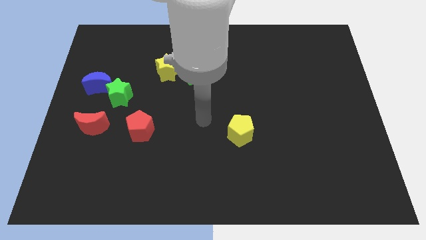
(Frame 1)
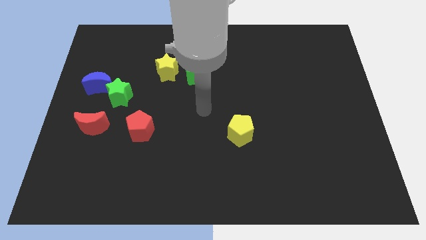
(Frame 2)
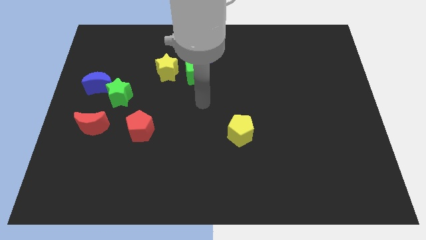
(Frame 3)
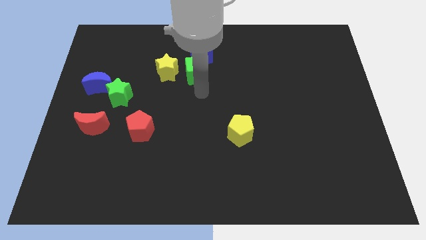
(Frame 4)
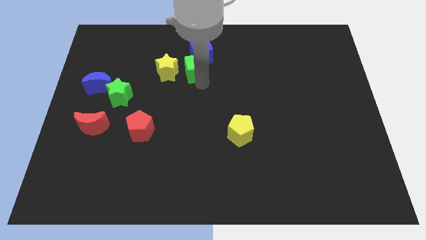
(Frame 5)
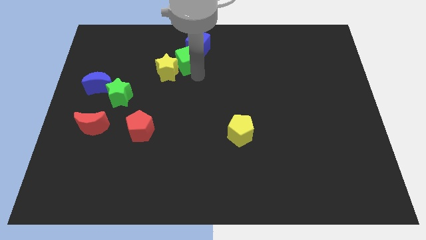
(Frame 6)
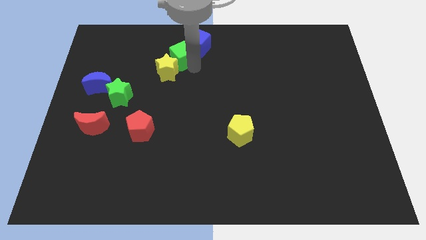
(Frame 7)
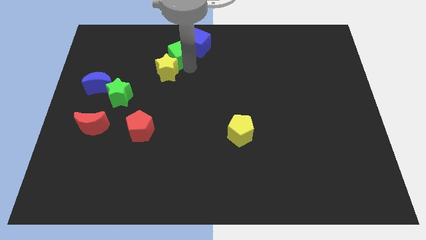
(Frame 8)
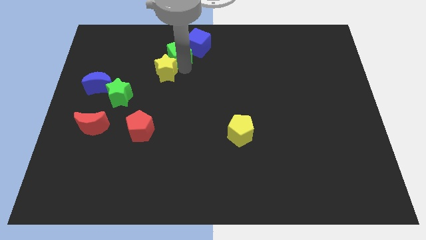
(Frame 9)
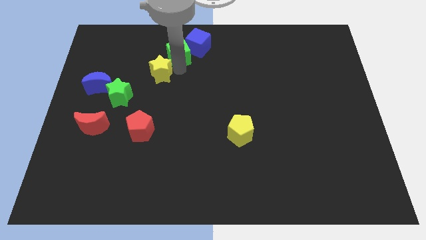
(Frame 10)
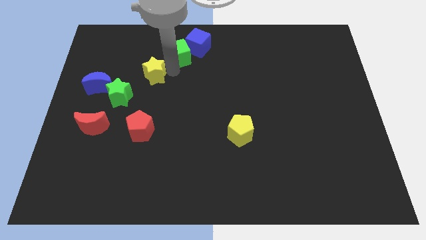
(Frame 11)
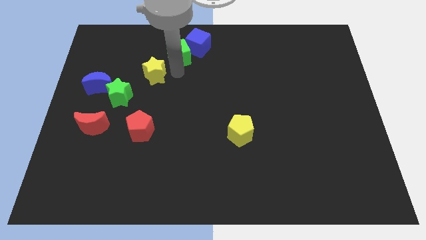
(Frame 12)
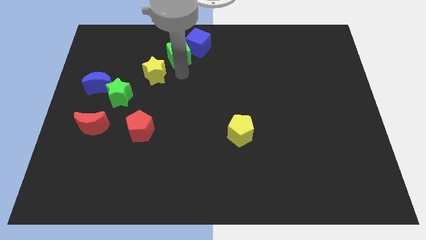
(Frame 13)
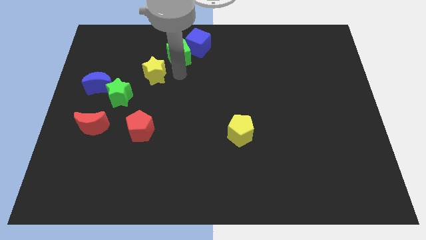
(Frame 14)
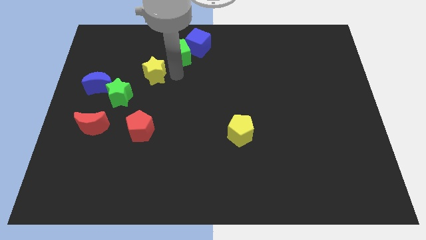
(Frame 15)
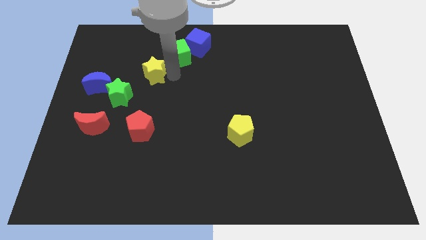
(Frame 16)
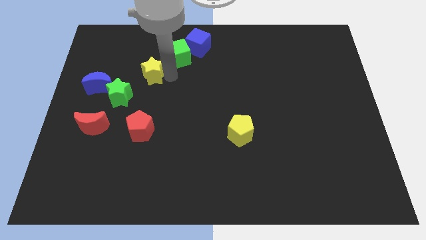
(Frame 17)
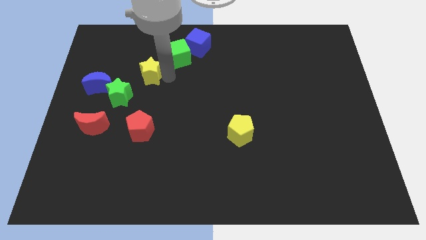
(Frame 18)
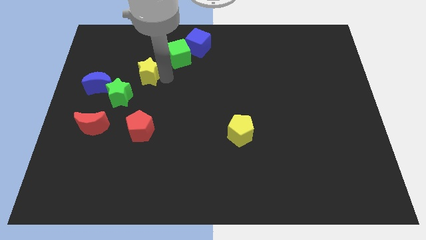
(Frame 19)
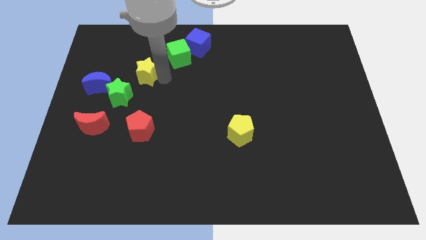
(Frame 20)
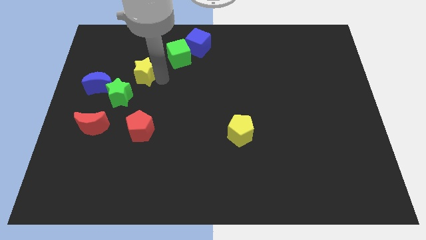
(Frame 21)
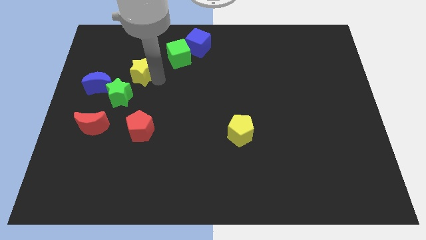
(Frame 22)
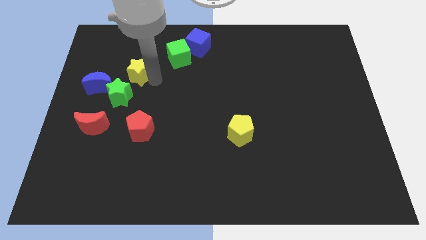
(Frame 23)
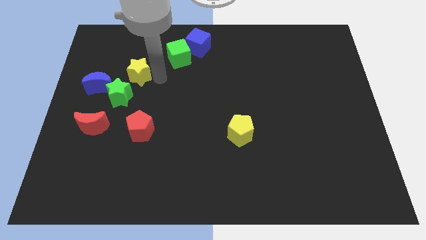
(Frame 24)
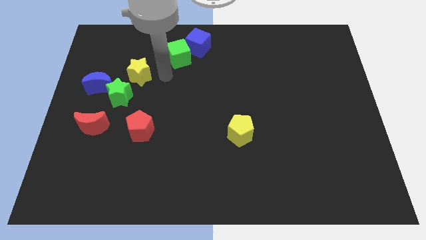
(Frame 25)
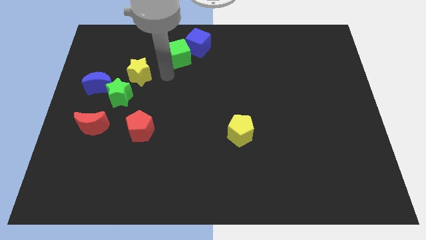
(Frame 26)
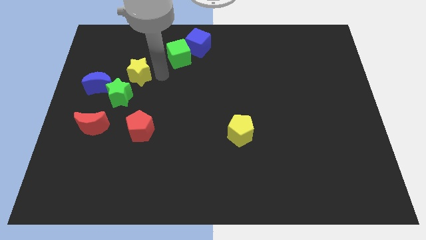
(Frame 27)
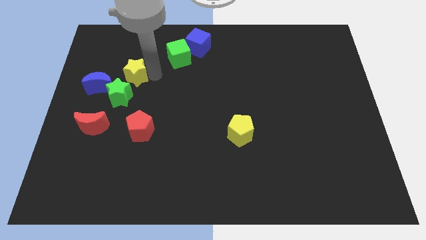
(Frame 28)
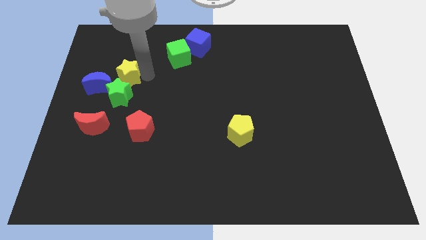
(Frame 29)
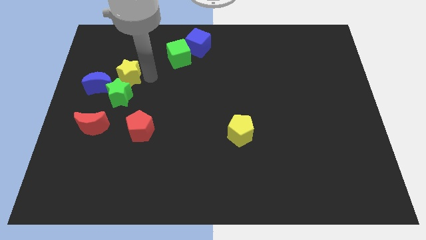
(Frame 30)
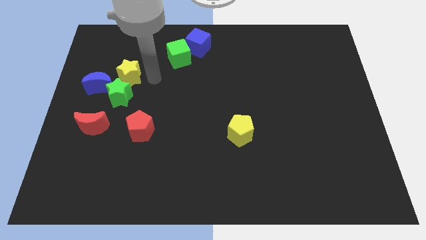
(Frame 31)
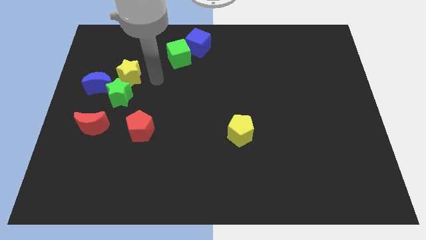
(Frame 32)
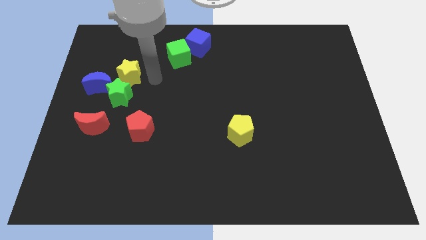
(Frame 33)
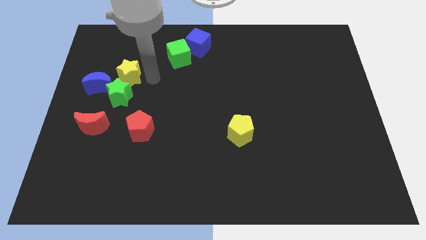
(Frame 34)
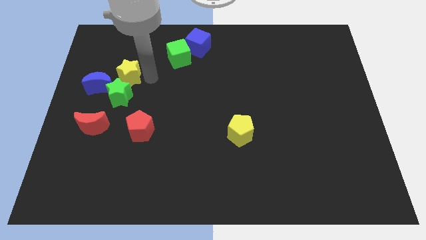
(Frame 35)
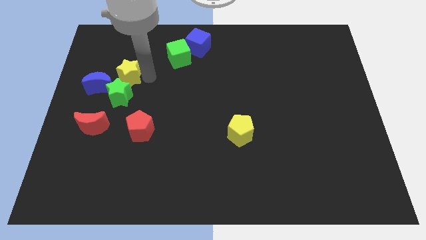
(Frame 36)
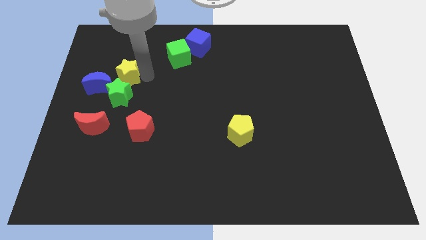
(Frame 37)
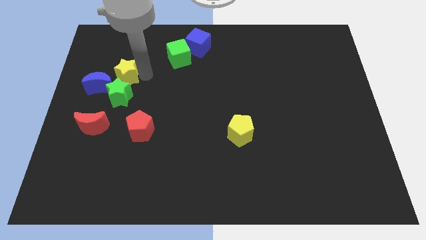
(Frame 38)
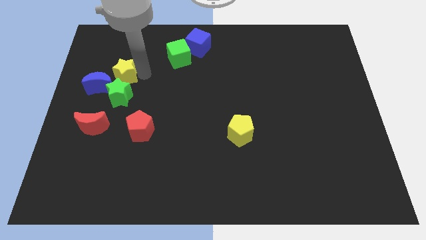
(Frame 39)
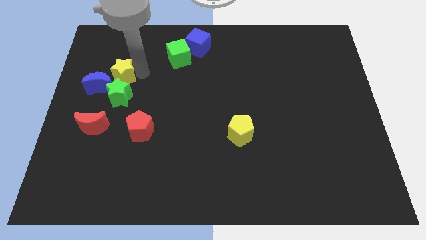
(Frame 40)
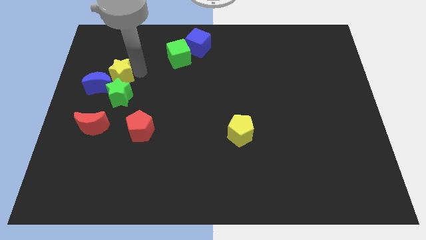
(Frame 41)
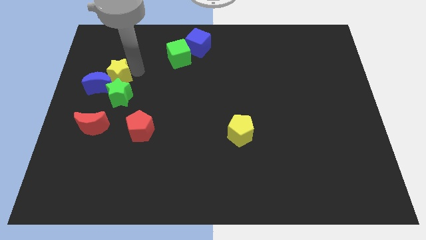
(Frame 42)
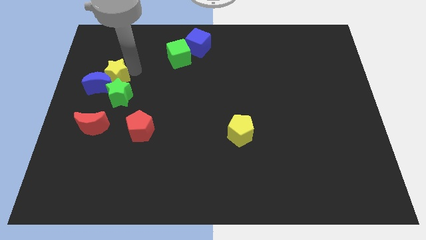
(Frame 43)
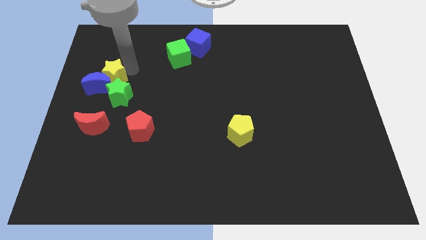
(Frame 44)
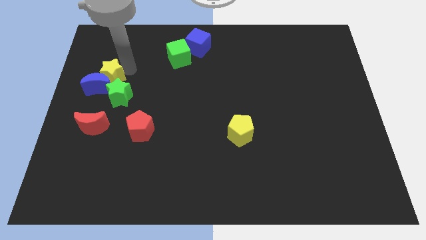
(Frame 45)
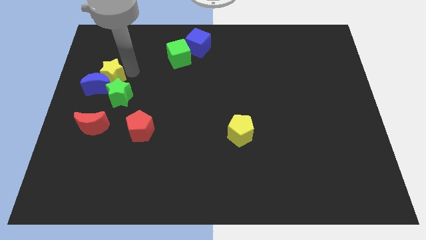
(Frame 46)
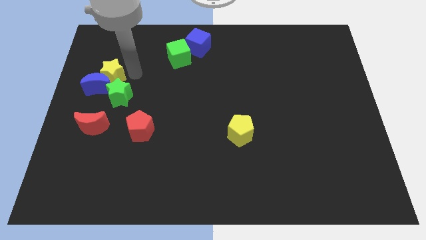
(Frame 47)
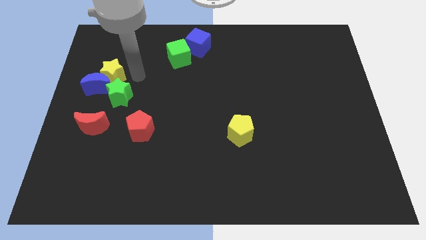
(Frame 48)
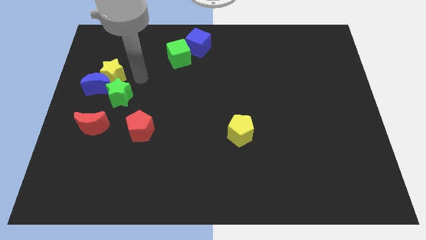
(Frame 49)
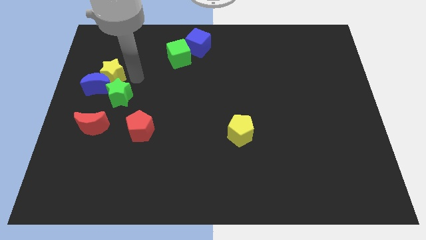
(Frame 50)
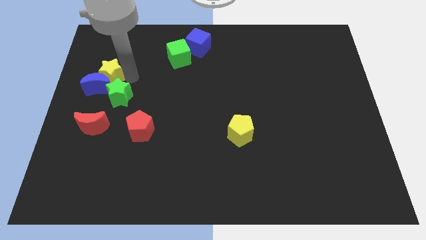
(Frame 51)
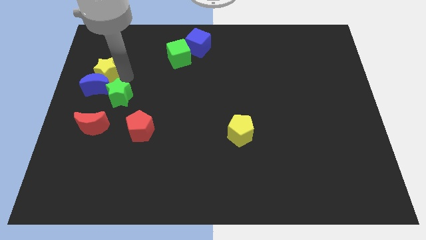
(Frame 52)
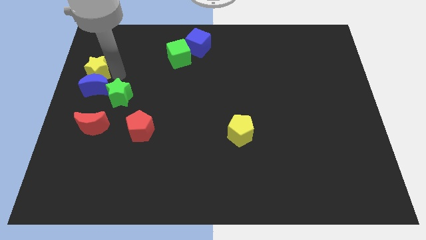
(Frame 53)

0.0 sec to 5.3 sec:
push the yellow star to the left side

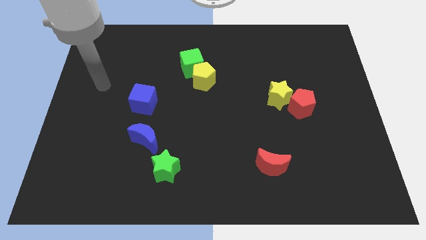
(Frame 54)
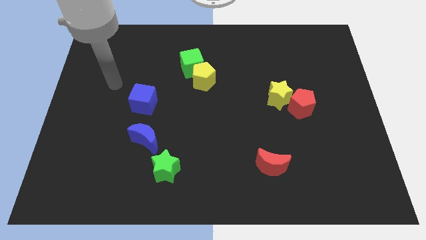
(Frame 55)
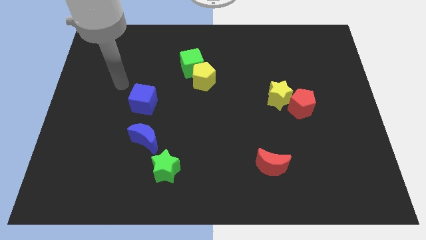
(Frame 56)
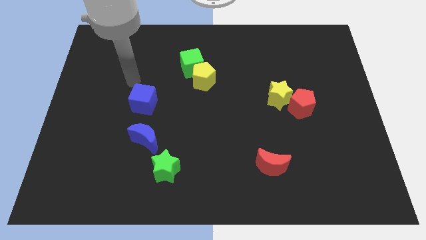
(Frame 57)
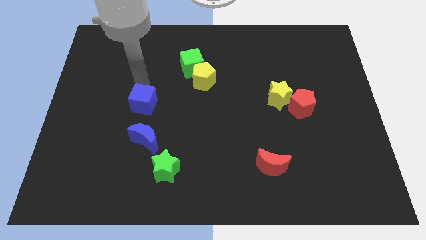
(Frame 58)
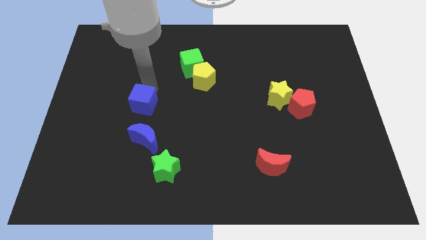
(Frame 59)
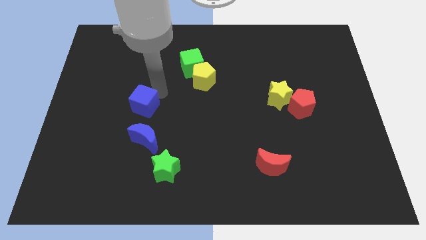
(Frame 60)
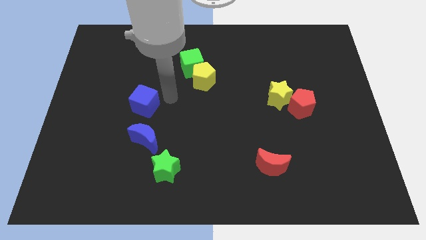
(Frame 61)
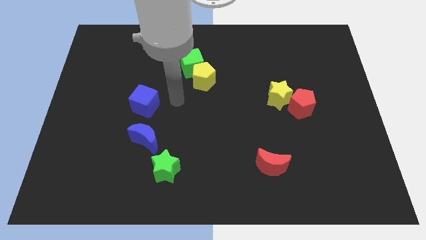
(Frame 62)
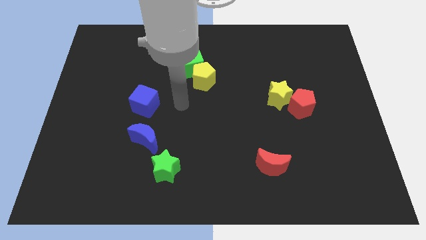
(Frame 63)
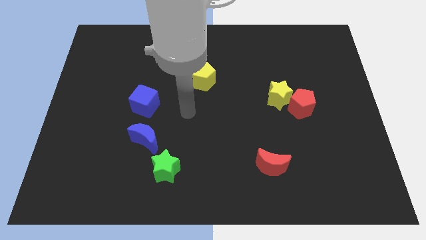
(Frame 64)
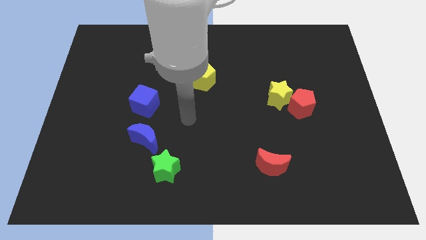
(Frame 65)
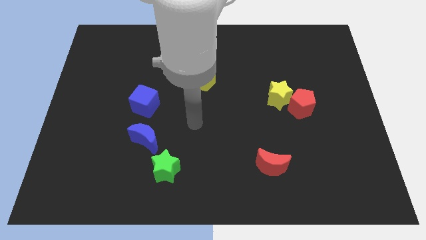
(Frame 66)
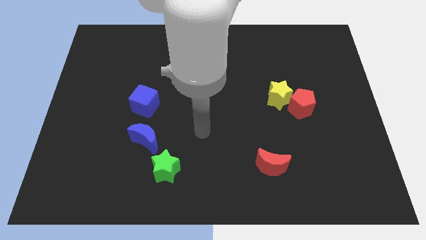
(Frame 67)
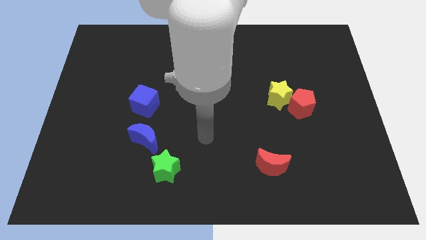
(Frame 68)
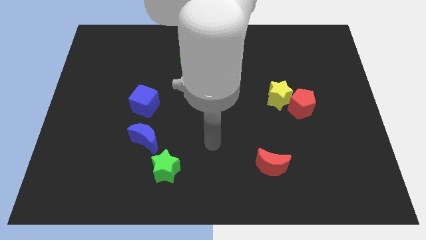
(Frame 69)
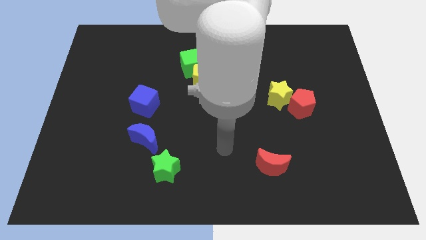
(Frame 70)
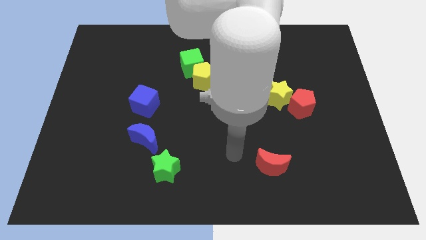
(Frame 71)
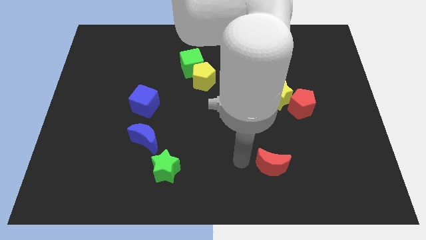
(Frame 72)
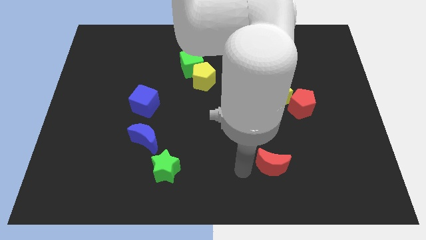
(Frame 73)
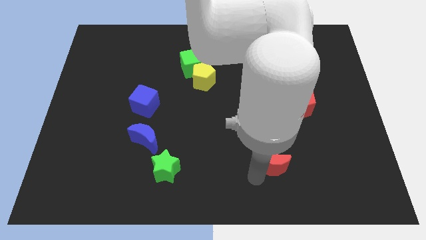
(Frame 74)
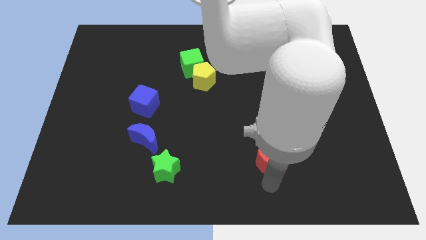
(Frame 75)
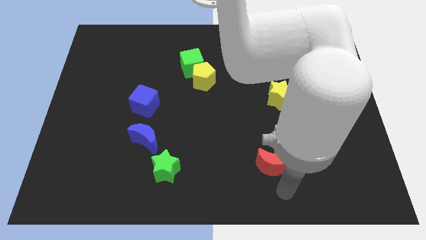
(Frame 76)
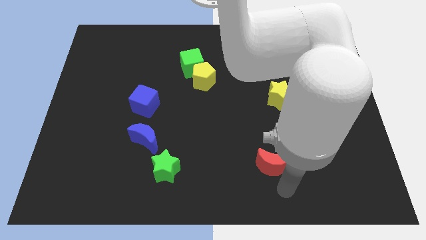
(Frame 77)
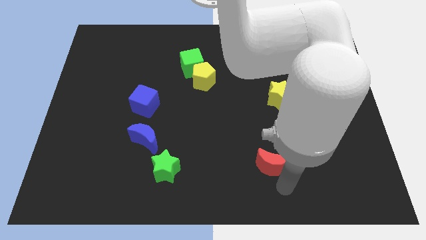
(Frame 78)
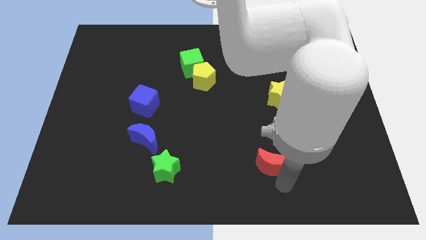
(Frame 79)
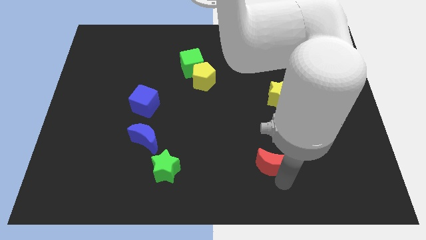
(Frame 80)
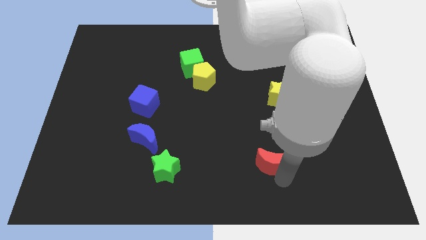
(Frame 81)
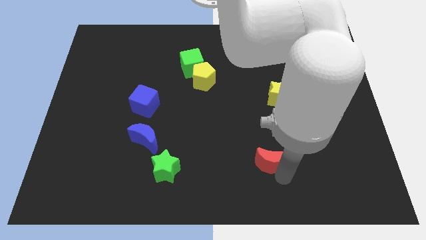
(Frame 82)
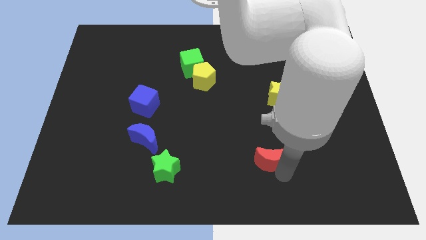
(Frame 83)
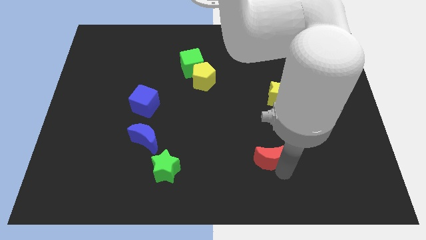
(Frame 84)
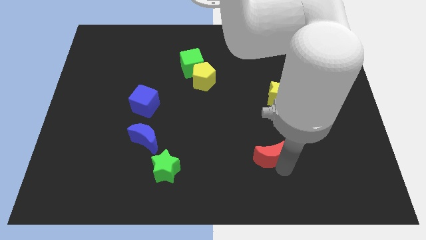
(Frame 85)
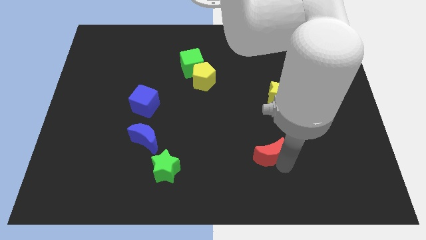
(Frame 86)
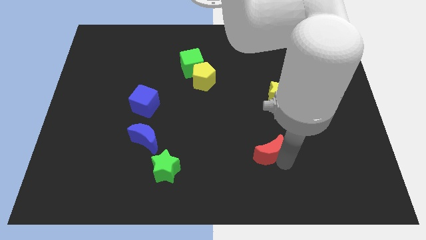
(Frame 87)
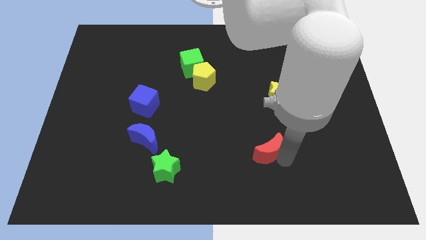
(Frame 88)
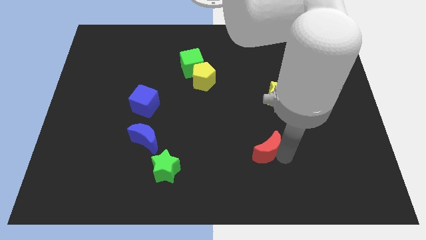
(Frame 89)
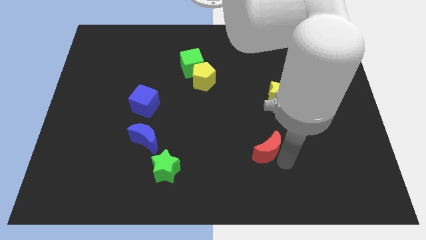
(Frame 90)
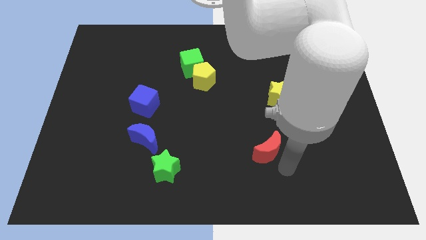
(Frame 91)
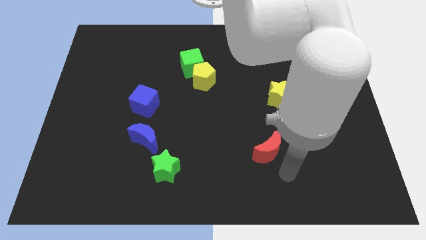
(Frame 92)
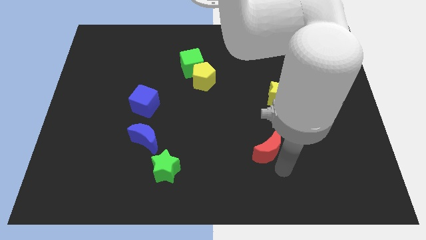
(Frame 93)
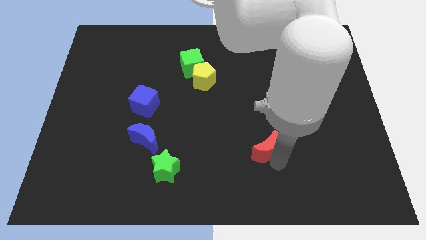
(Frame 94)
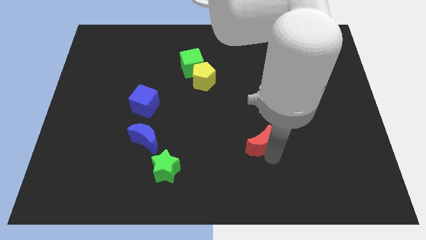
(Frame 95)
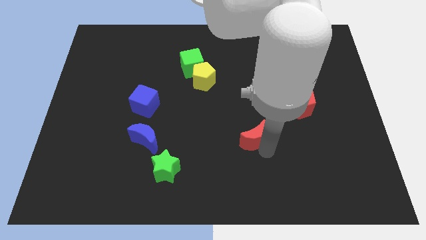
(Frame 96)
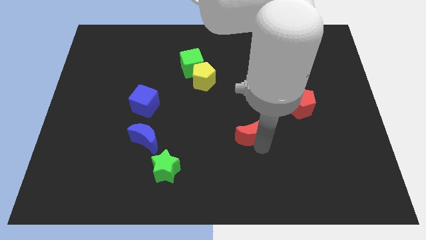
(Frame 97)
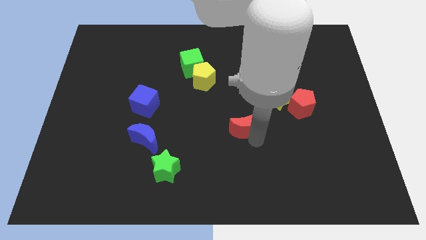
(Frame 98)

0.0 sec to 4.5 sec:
slide the red moon to the middle of the board
